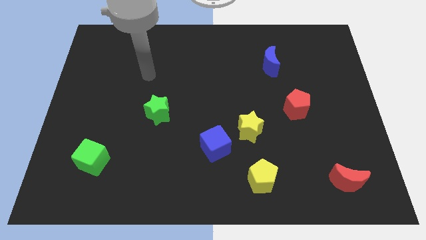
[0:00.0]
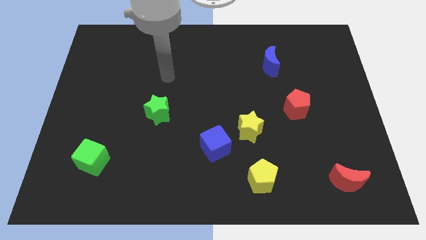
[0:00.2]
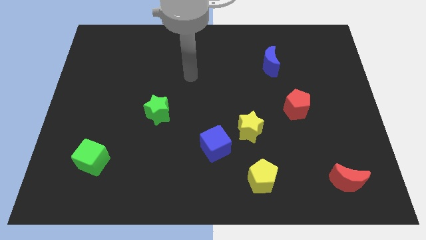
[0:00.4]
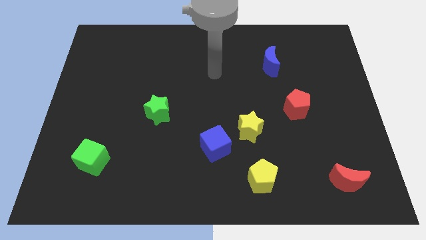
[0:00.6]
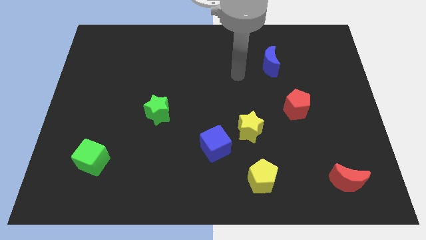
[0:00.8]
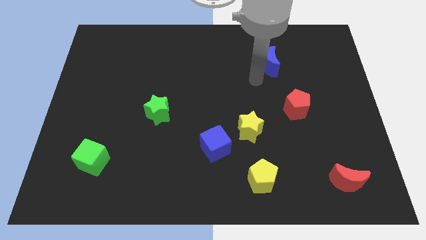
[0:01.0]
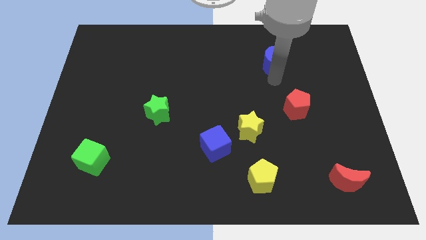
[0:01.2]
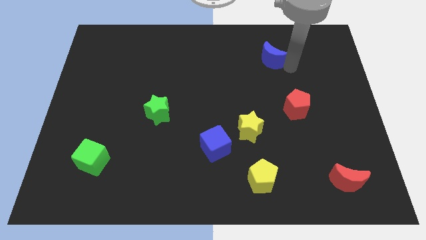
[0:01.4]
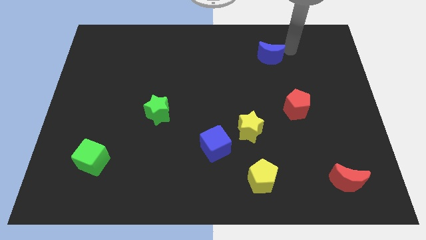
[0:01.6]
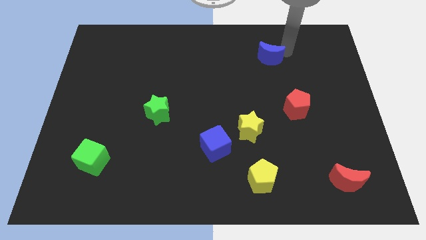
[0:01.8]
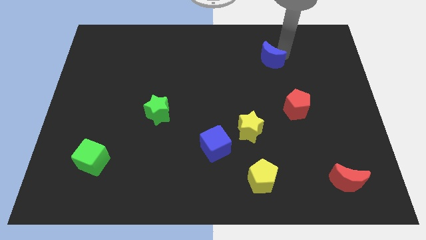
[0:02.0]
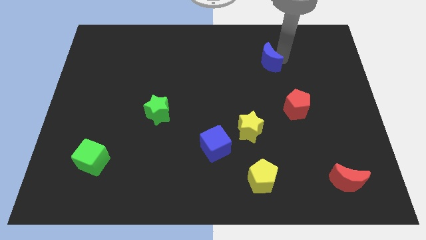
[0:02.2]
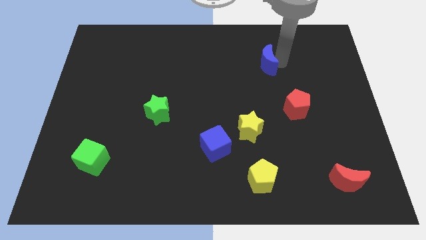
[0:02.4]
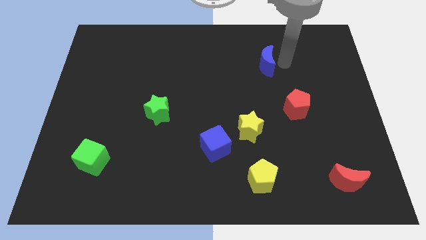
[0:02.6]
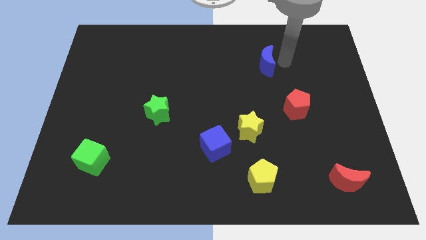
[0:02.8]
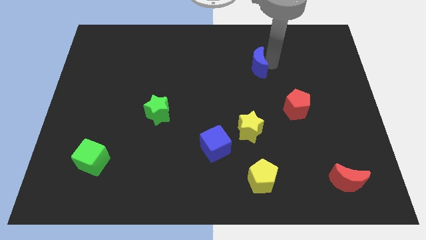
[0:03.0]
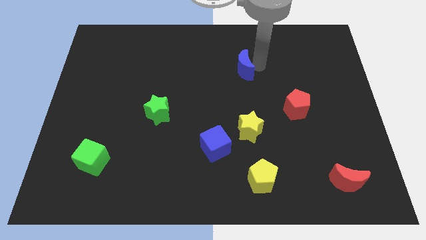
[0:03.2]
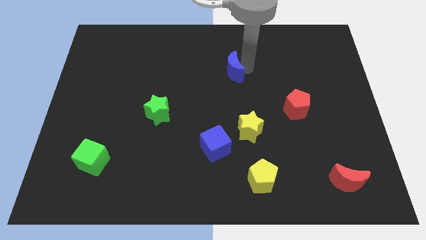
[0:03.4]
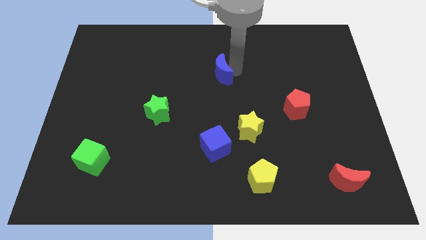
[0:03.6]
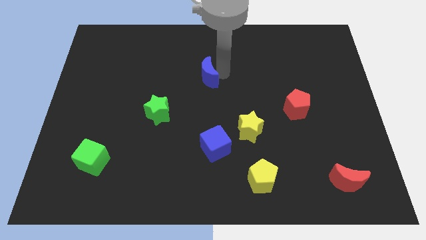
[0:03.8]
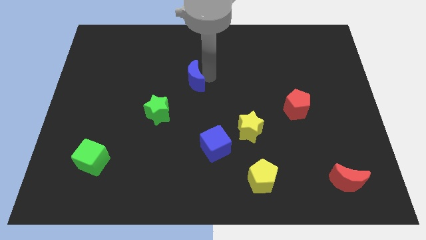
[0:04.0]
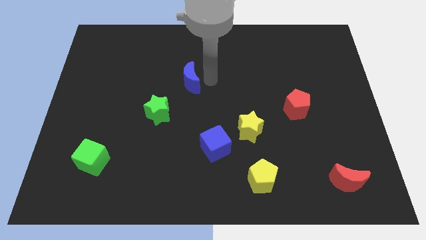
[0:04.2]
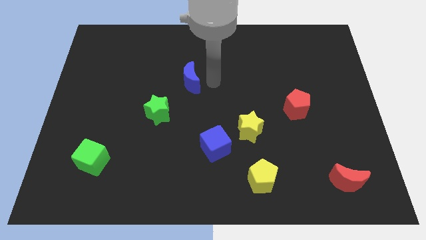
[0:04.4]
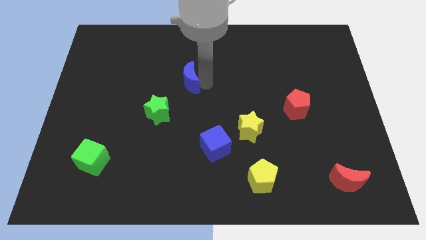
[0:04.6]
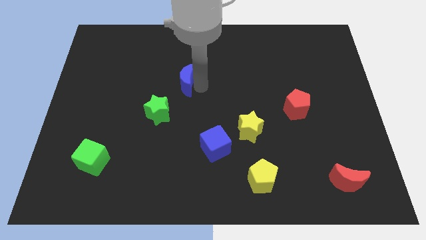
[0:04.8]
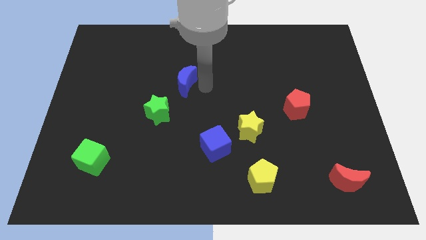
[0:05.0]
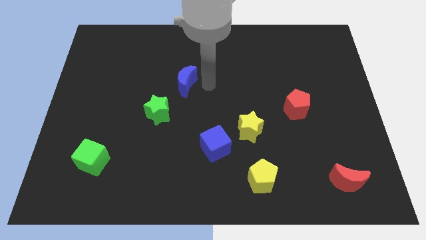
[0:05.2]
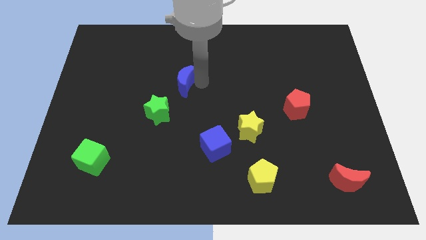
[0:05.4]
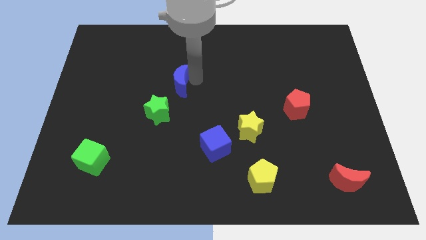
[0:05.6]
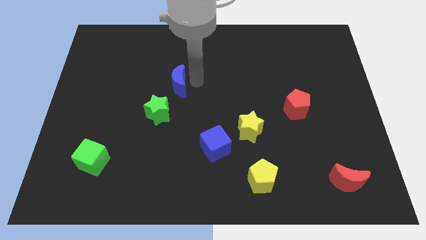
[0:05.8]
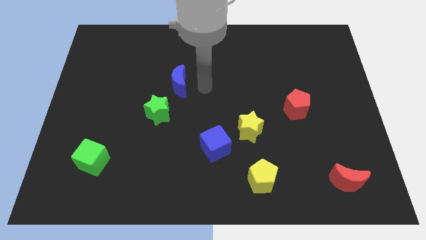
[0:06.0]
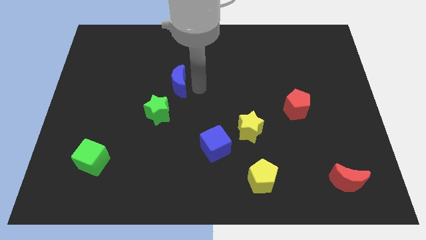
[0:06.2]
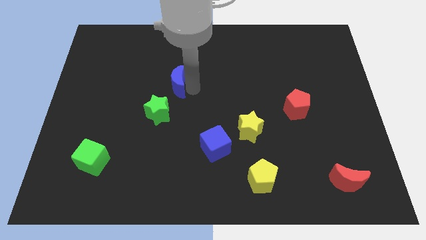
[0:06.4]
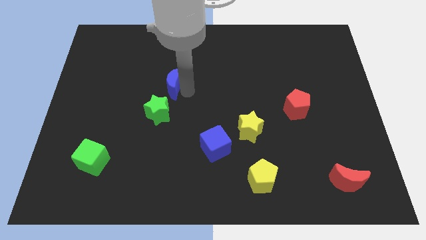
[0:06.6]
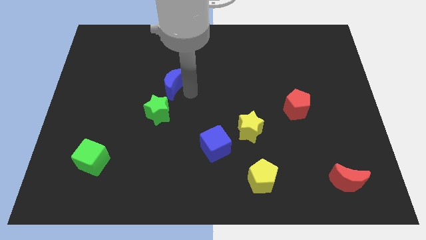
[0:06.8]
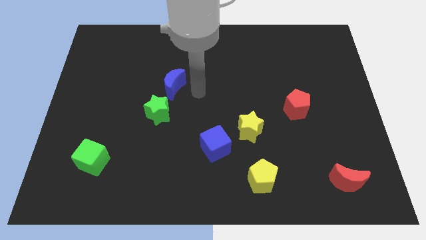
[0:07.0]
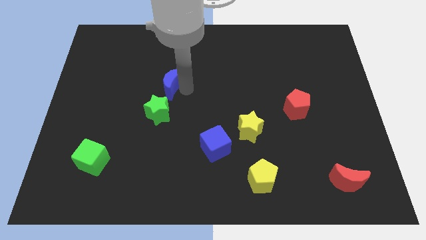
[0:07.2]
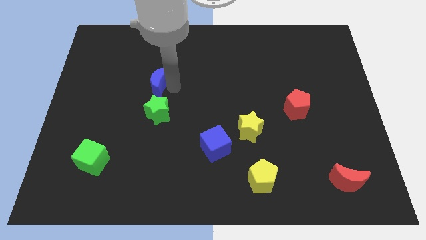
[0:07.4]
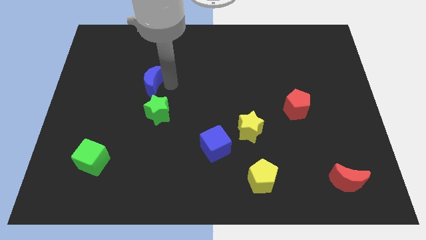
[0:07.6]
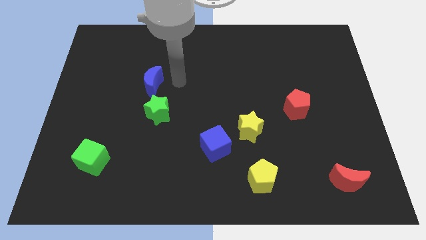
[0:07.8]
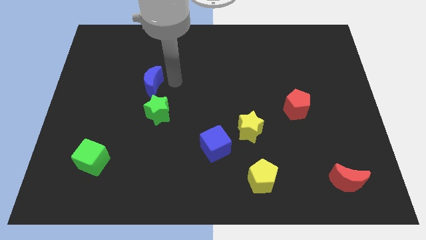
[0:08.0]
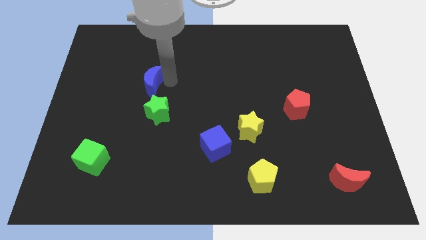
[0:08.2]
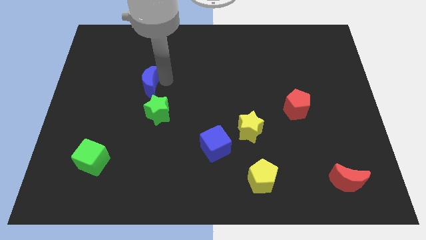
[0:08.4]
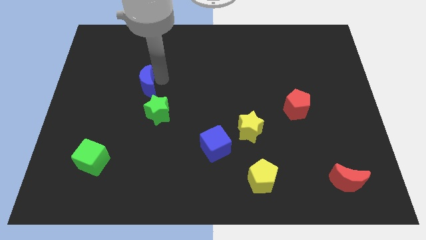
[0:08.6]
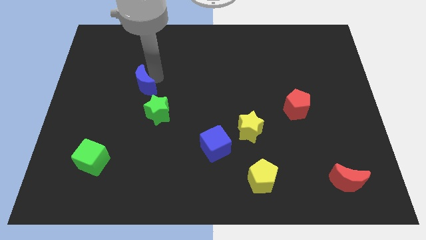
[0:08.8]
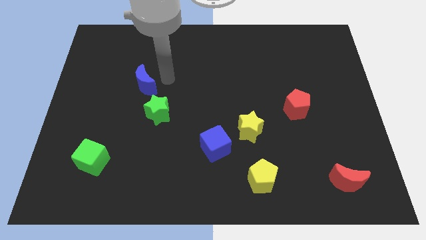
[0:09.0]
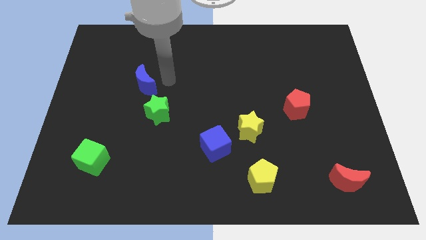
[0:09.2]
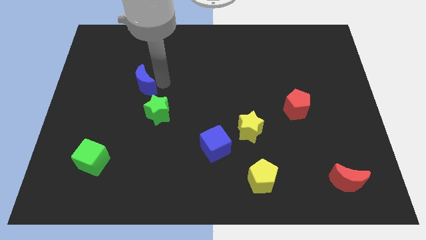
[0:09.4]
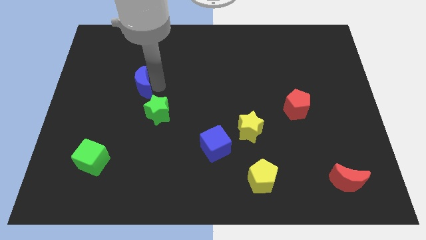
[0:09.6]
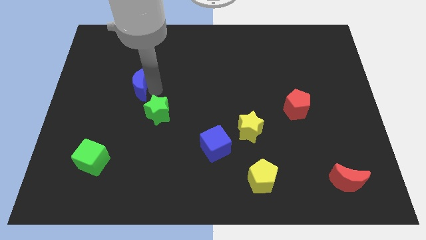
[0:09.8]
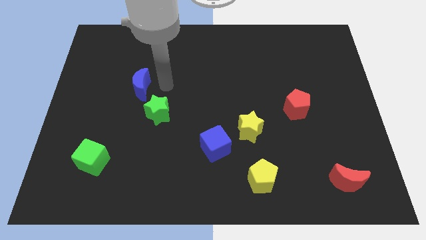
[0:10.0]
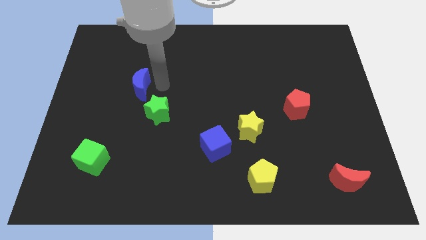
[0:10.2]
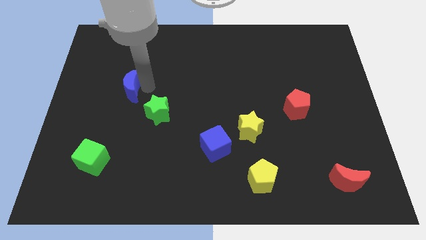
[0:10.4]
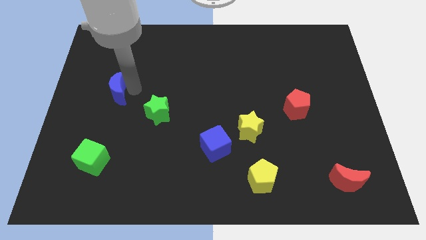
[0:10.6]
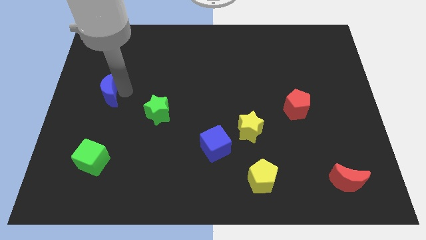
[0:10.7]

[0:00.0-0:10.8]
put the blue moon to the left side of the board

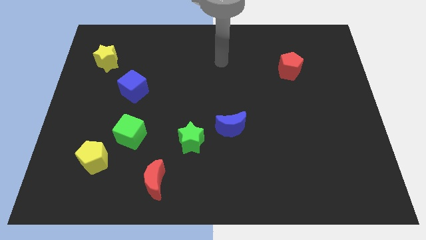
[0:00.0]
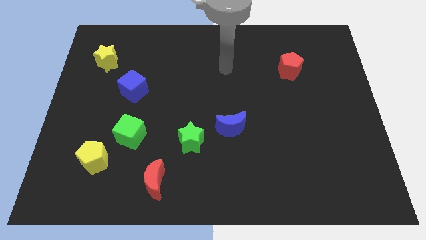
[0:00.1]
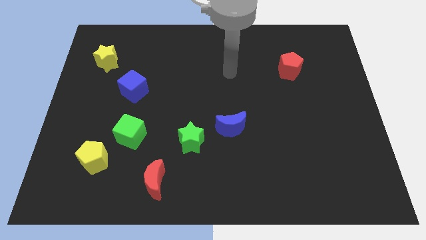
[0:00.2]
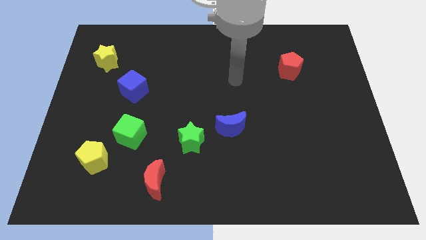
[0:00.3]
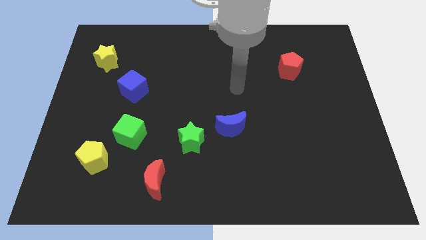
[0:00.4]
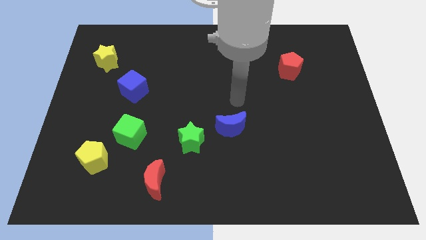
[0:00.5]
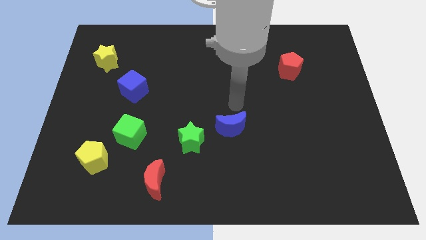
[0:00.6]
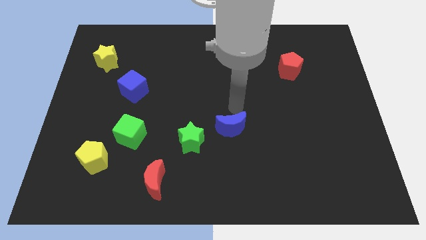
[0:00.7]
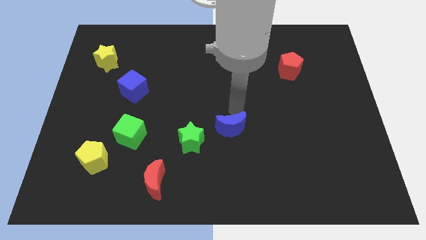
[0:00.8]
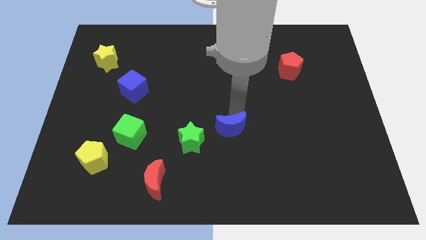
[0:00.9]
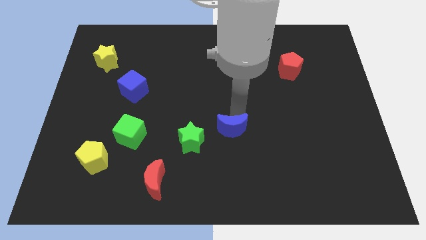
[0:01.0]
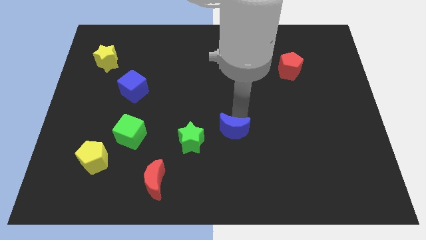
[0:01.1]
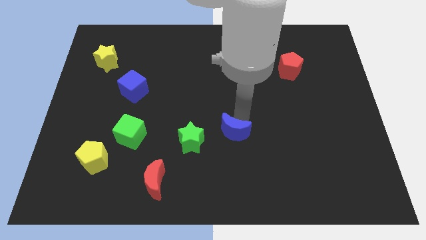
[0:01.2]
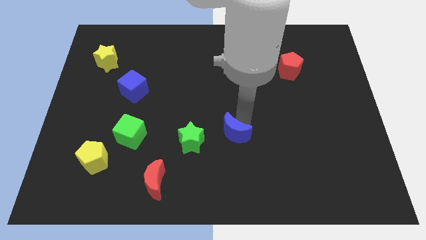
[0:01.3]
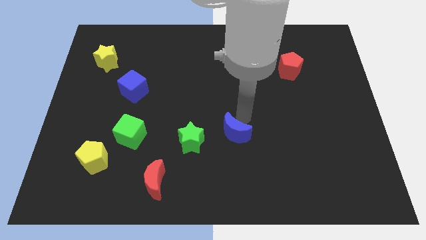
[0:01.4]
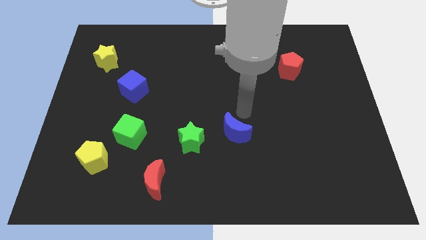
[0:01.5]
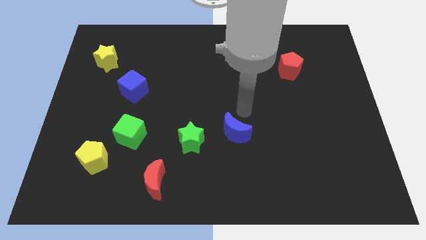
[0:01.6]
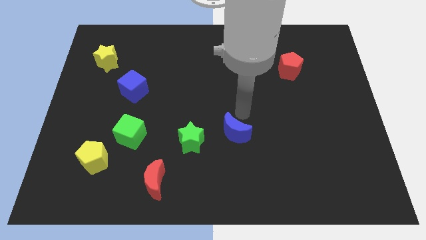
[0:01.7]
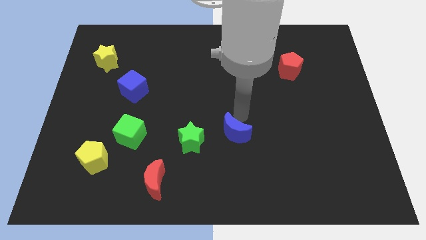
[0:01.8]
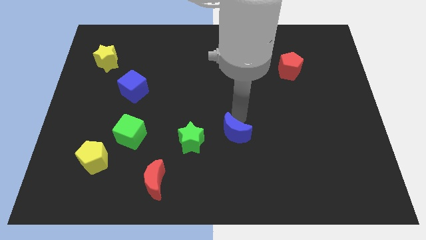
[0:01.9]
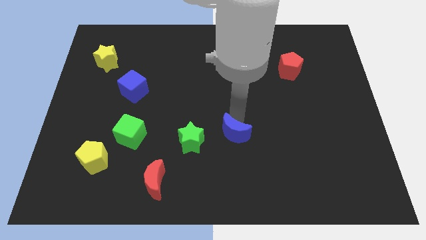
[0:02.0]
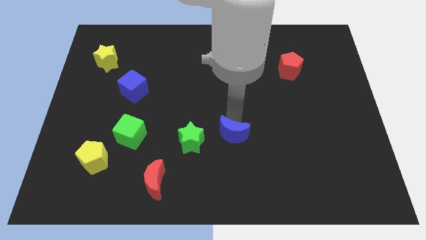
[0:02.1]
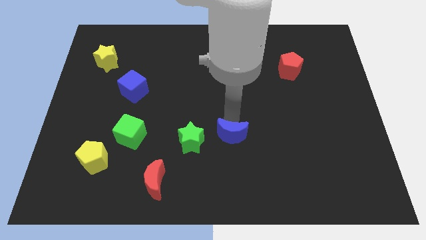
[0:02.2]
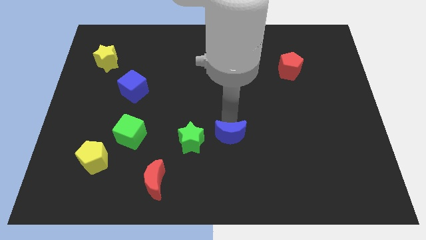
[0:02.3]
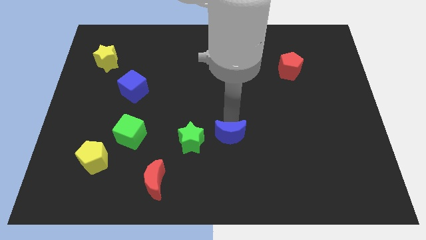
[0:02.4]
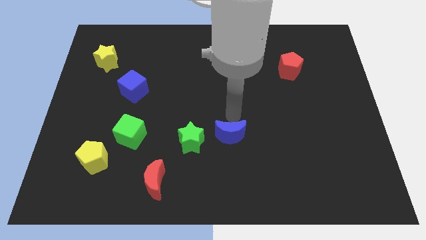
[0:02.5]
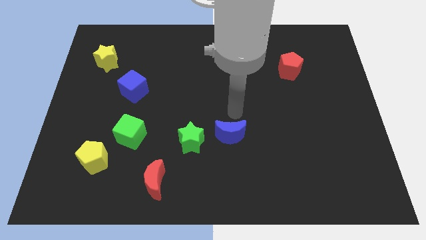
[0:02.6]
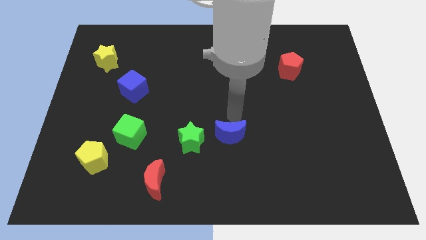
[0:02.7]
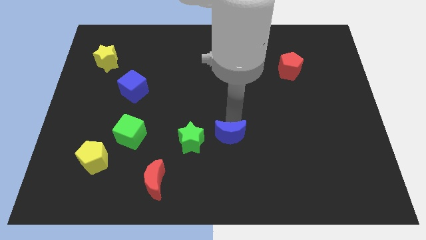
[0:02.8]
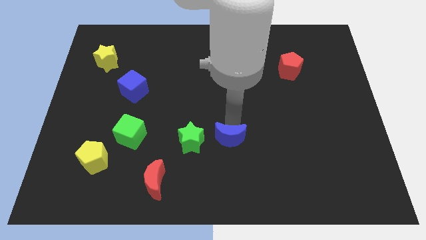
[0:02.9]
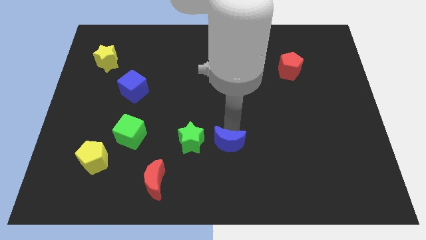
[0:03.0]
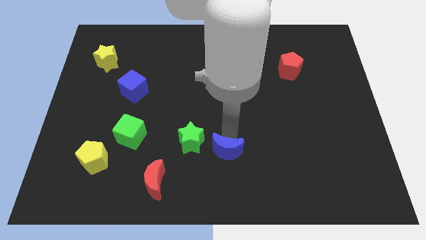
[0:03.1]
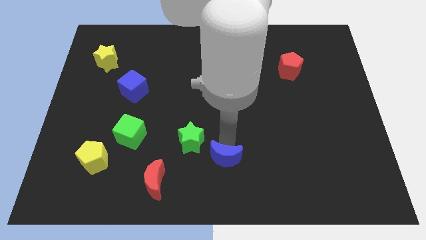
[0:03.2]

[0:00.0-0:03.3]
put the blue moon to the bottom

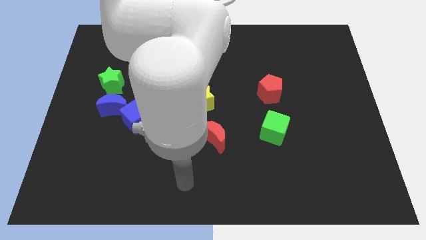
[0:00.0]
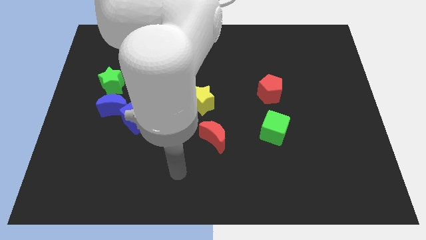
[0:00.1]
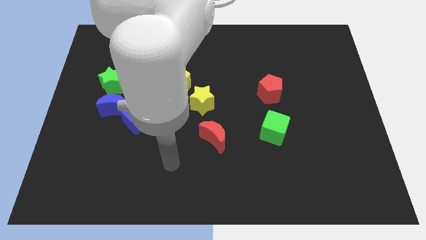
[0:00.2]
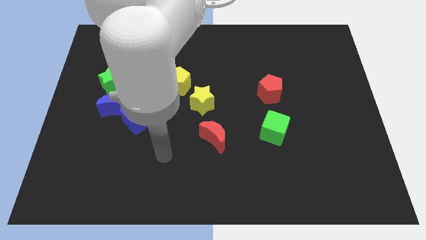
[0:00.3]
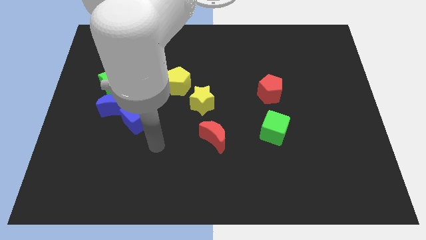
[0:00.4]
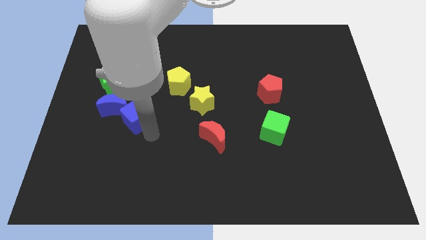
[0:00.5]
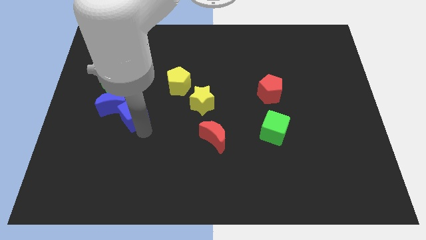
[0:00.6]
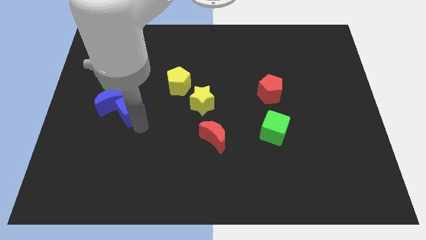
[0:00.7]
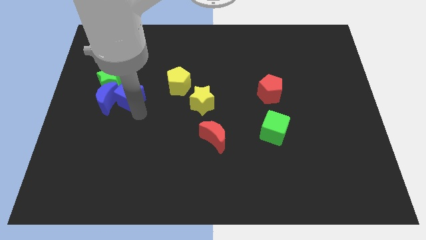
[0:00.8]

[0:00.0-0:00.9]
push the blue moon to the left side
